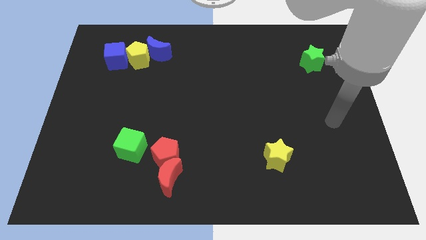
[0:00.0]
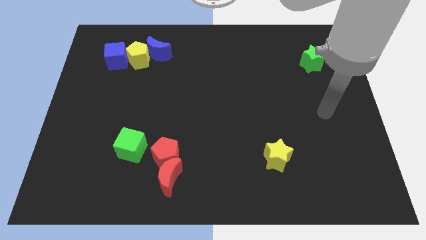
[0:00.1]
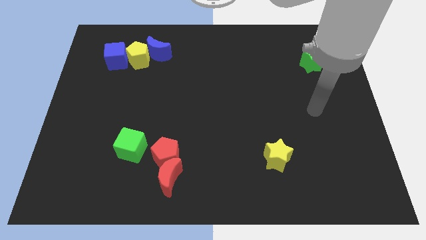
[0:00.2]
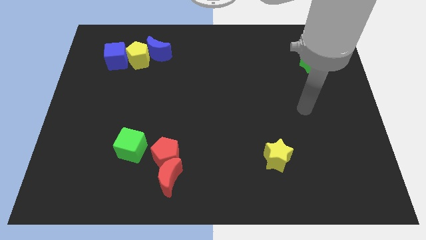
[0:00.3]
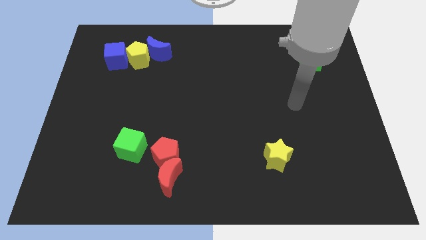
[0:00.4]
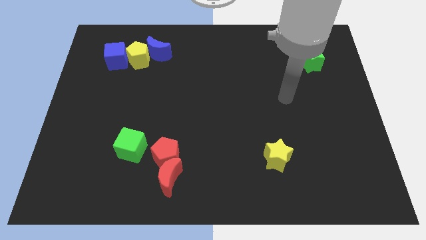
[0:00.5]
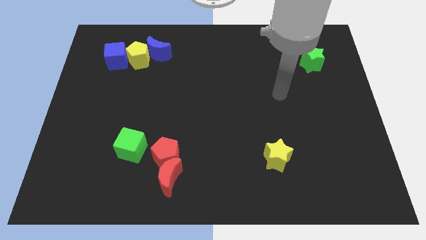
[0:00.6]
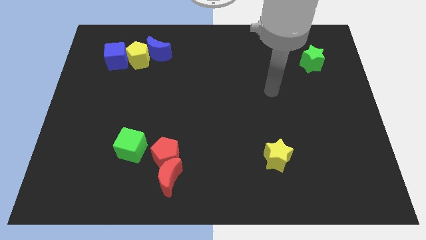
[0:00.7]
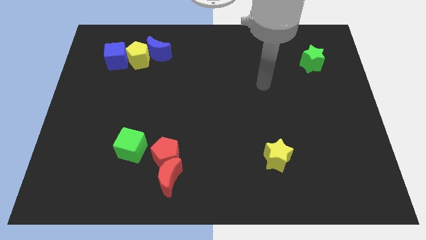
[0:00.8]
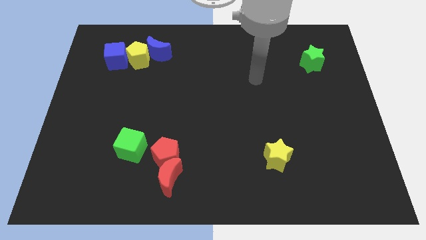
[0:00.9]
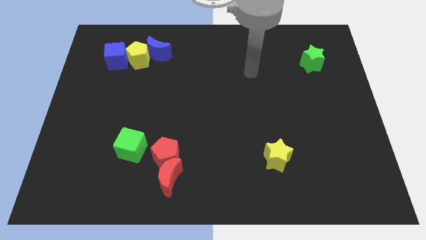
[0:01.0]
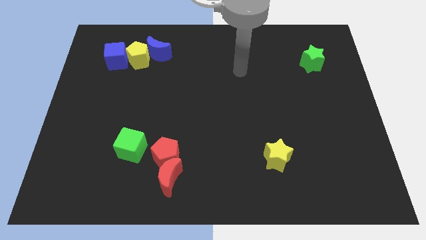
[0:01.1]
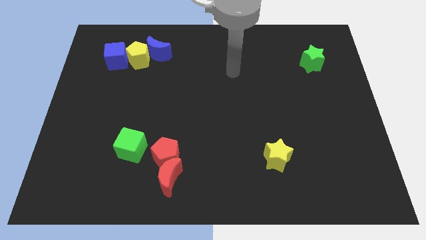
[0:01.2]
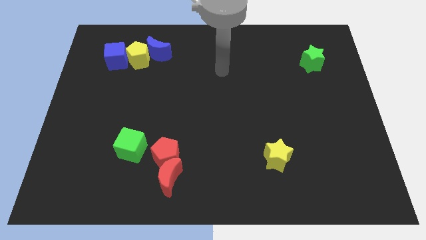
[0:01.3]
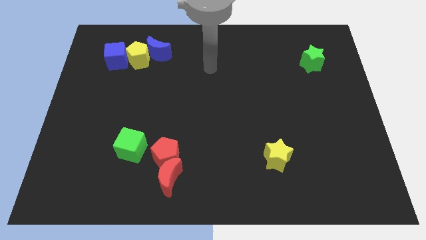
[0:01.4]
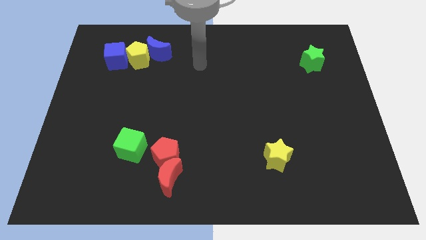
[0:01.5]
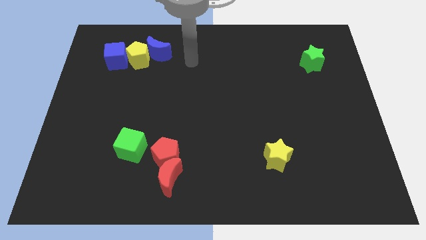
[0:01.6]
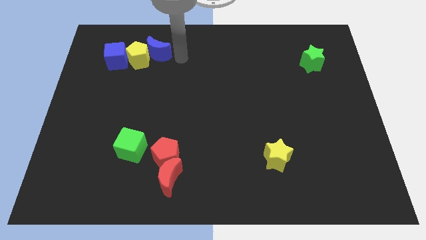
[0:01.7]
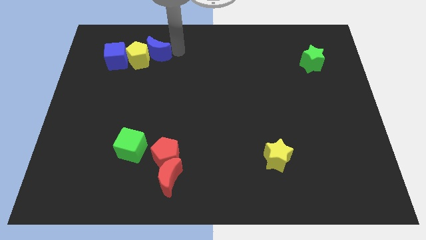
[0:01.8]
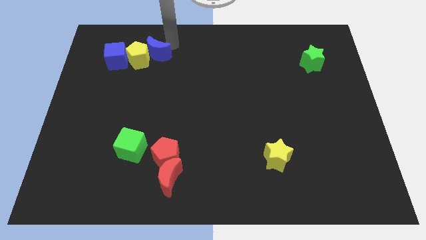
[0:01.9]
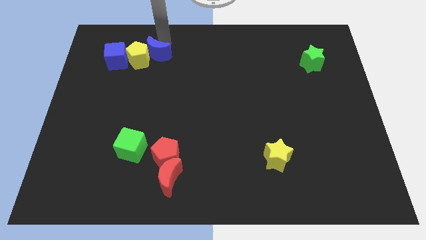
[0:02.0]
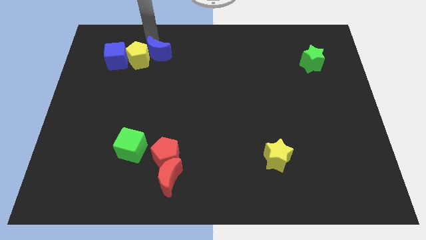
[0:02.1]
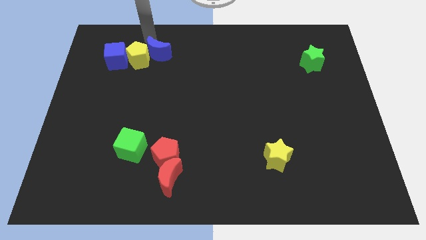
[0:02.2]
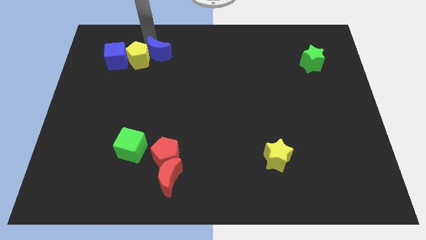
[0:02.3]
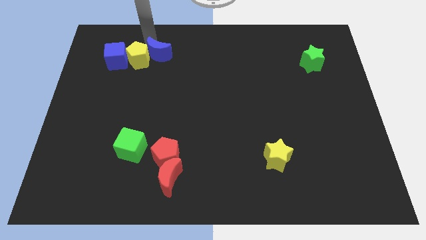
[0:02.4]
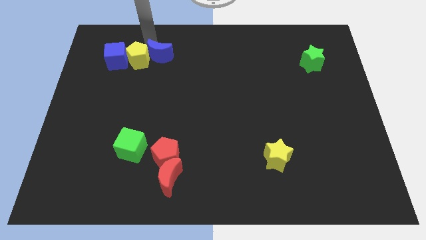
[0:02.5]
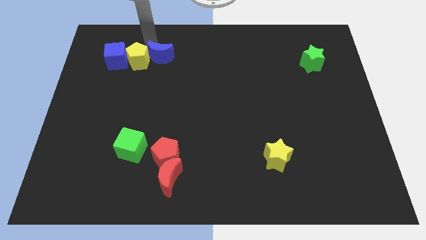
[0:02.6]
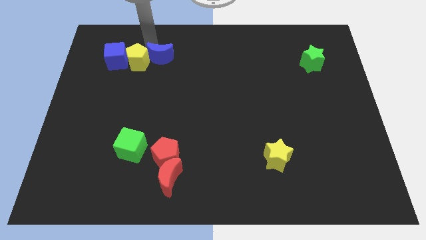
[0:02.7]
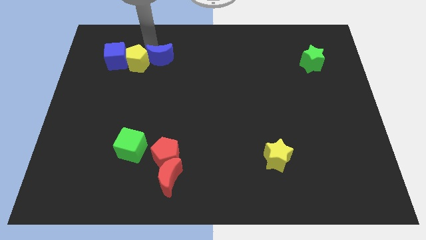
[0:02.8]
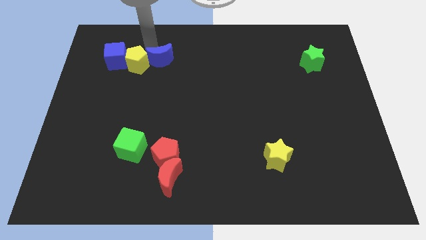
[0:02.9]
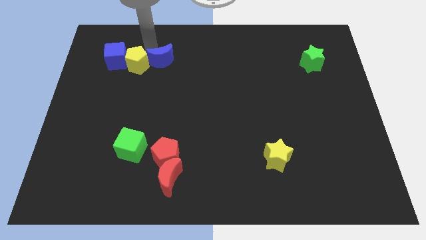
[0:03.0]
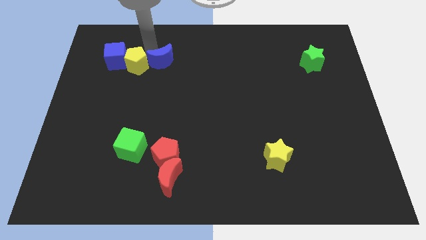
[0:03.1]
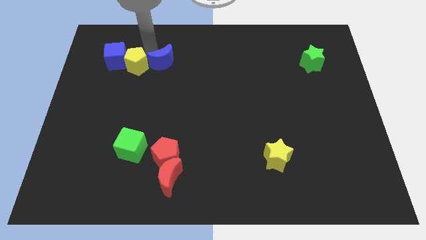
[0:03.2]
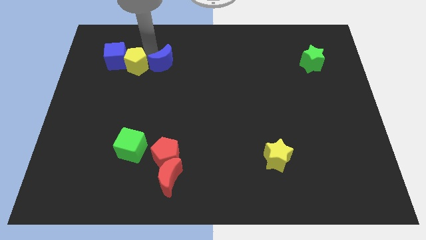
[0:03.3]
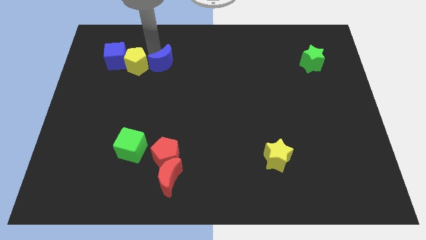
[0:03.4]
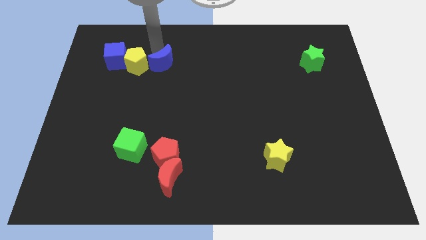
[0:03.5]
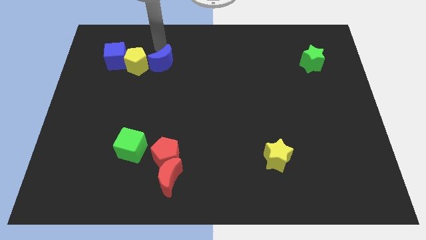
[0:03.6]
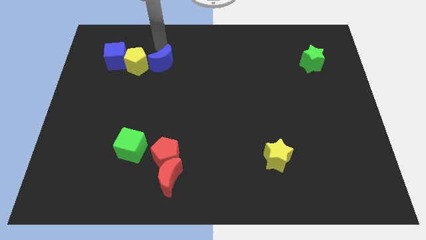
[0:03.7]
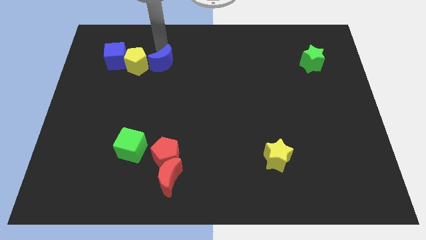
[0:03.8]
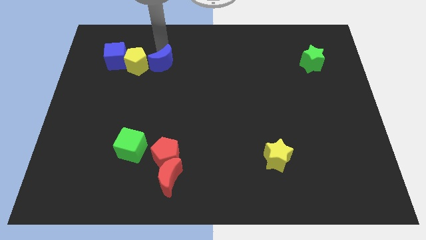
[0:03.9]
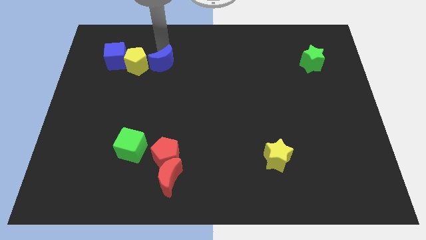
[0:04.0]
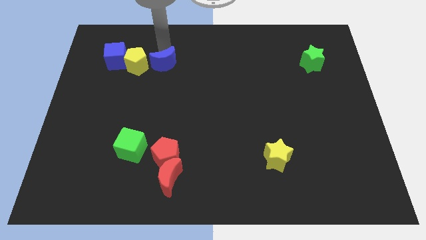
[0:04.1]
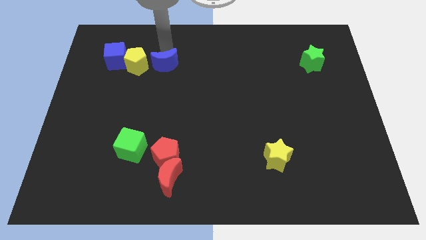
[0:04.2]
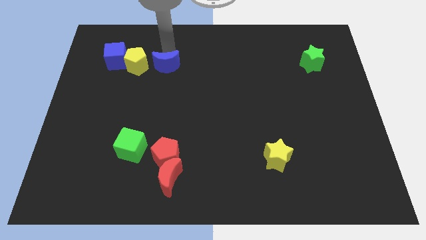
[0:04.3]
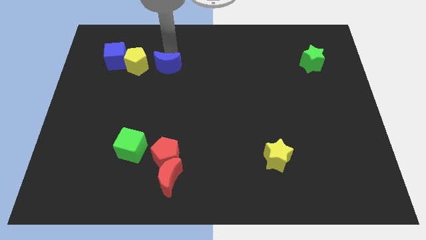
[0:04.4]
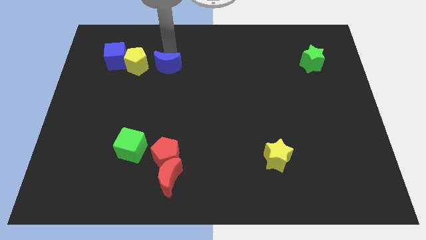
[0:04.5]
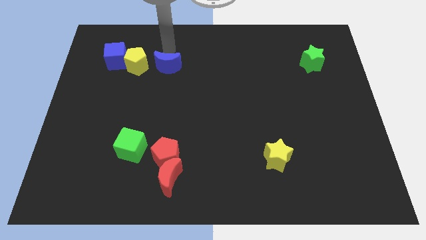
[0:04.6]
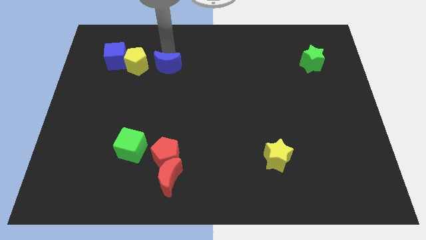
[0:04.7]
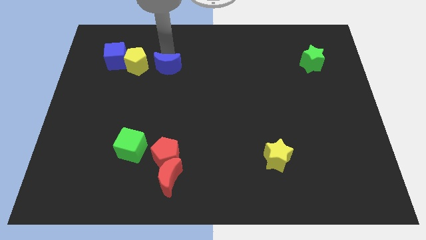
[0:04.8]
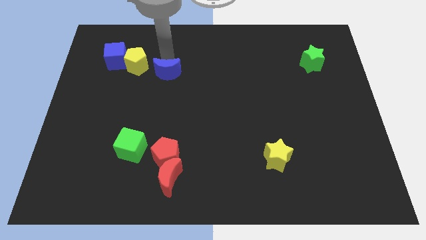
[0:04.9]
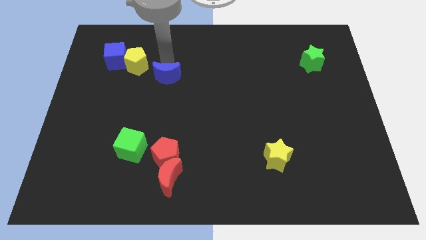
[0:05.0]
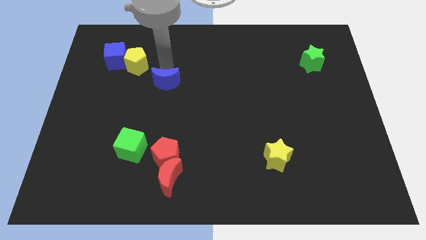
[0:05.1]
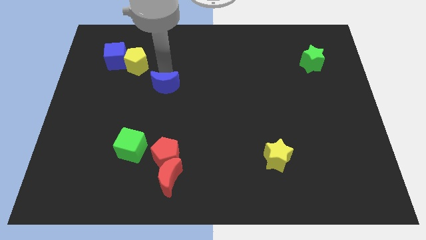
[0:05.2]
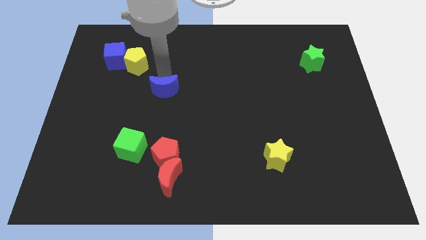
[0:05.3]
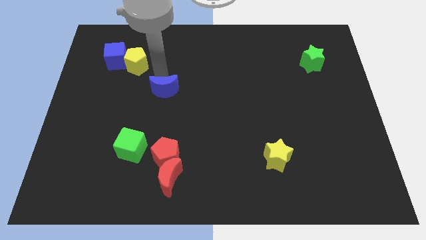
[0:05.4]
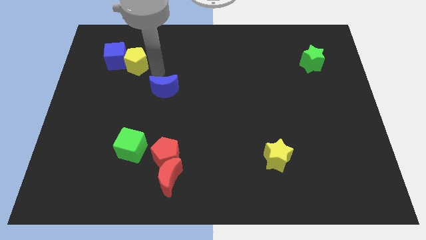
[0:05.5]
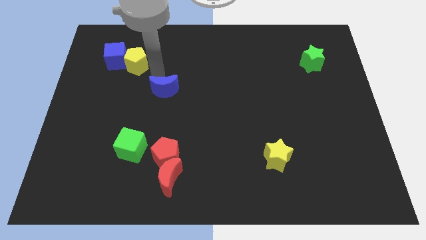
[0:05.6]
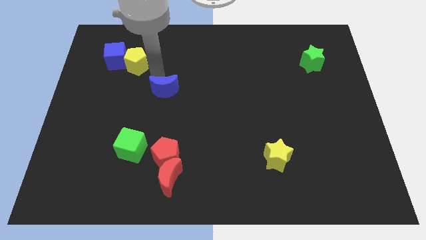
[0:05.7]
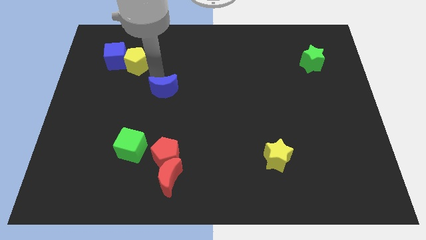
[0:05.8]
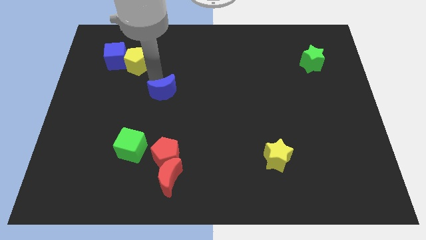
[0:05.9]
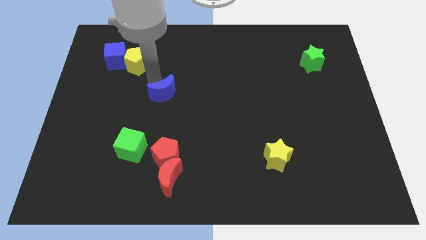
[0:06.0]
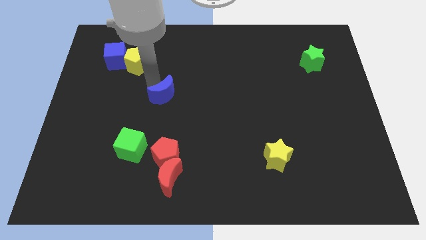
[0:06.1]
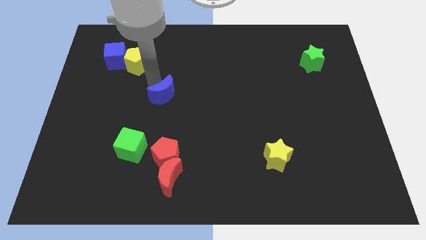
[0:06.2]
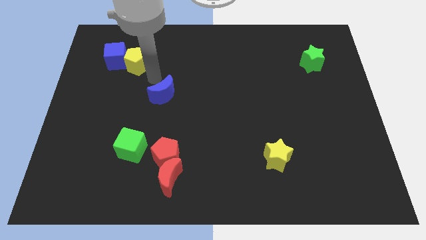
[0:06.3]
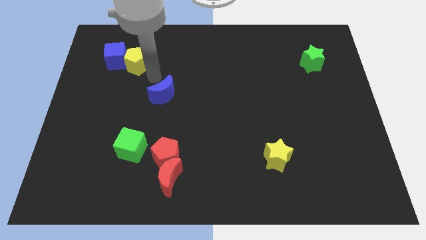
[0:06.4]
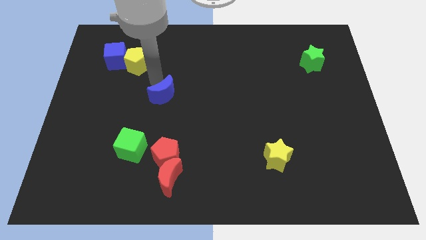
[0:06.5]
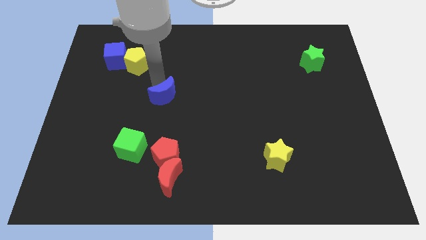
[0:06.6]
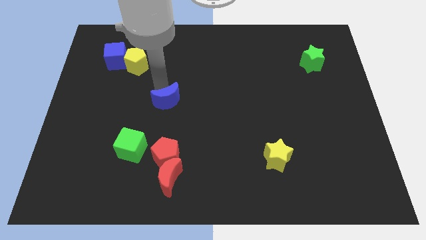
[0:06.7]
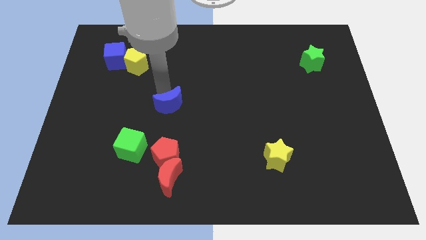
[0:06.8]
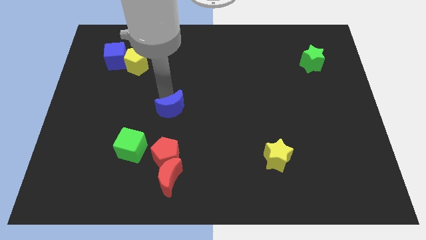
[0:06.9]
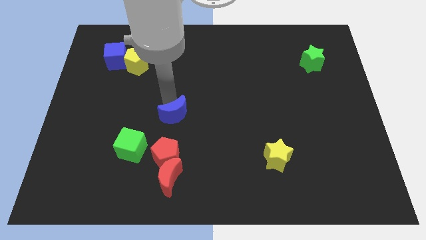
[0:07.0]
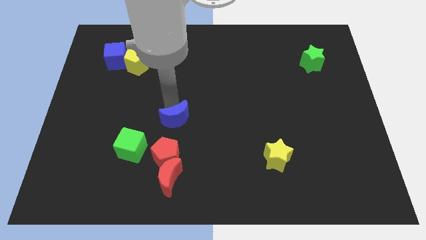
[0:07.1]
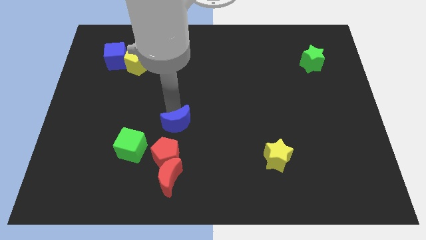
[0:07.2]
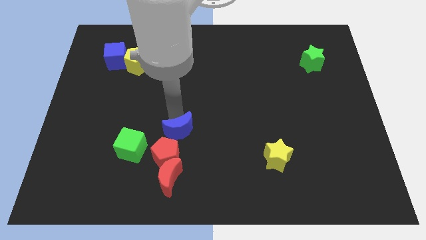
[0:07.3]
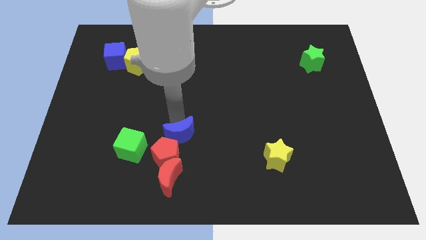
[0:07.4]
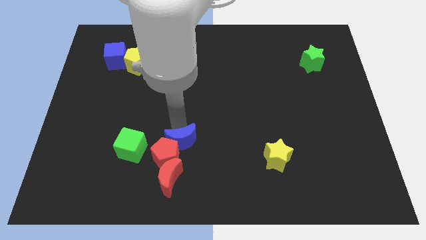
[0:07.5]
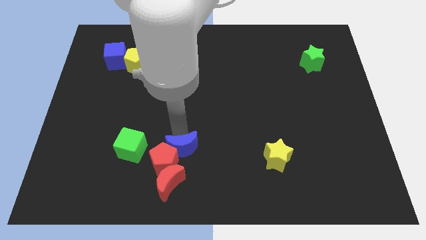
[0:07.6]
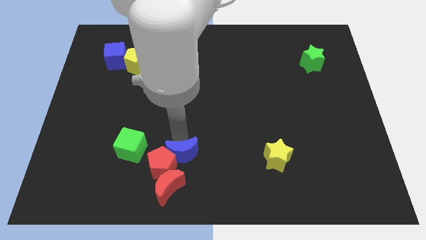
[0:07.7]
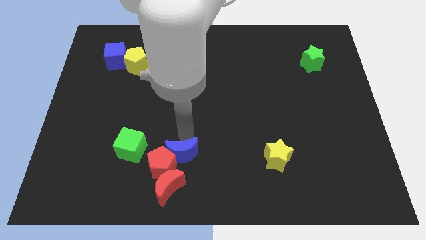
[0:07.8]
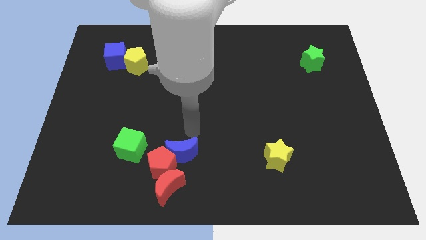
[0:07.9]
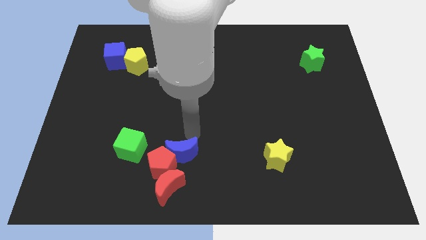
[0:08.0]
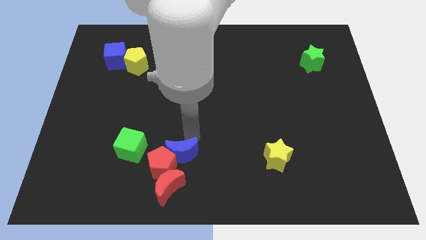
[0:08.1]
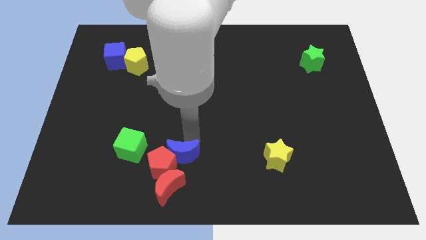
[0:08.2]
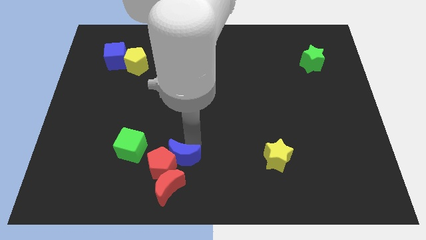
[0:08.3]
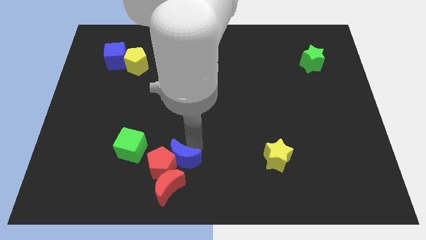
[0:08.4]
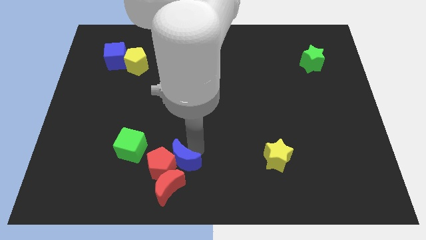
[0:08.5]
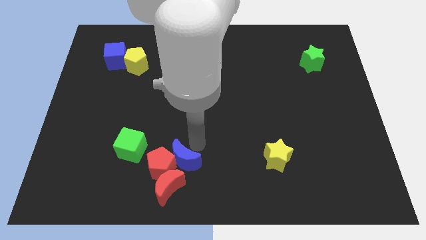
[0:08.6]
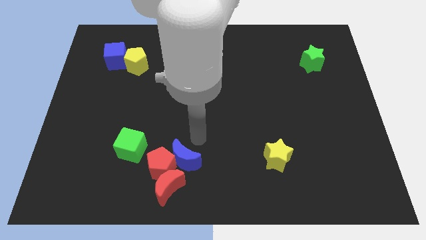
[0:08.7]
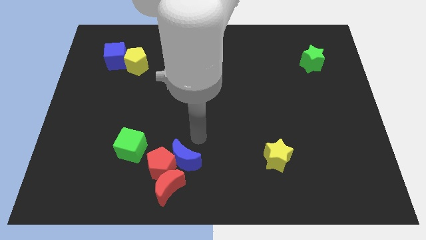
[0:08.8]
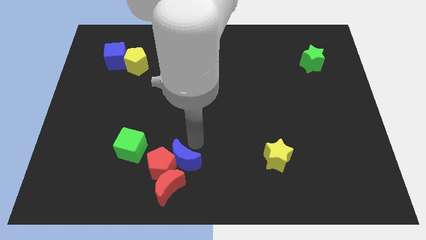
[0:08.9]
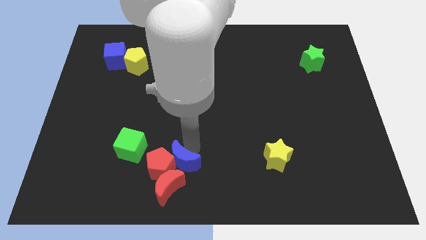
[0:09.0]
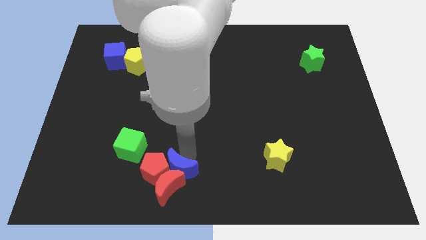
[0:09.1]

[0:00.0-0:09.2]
slide the blue moon towards the red moon
